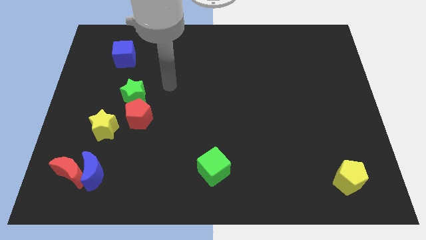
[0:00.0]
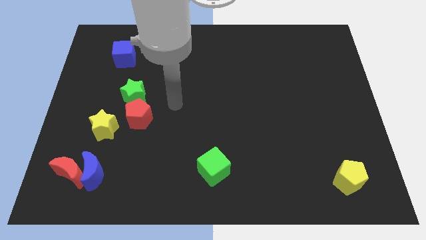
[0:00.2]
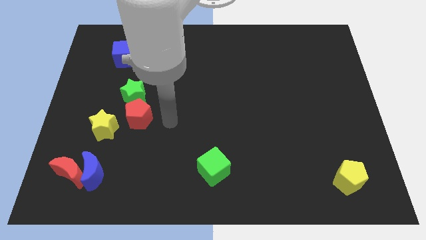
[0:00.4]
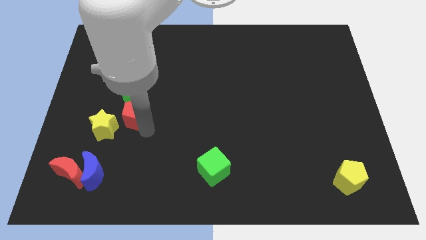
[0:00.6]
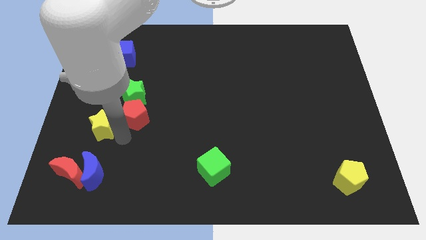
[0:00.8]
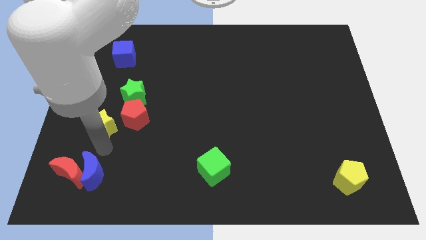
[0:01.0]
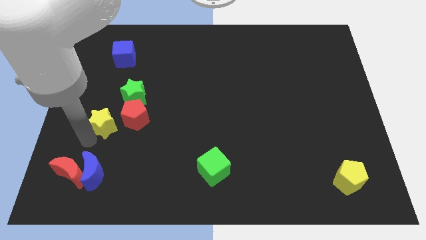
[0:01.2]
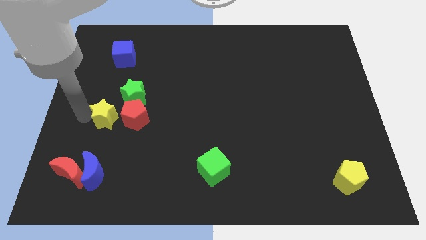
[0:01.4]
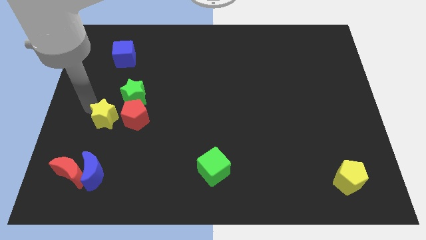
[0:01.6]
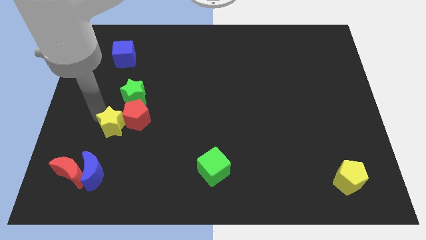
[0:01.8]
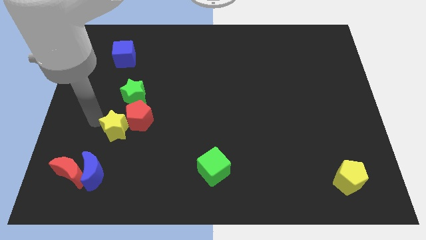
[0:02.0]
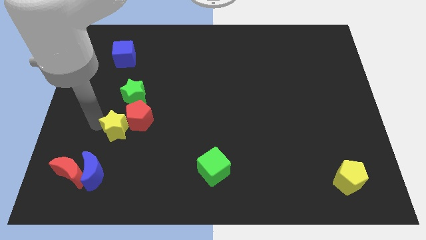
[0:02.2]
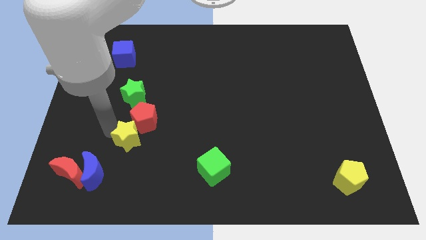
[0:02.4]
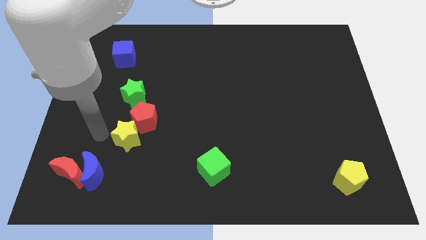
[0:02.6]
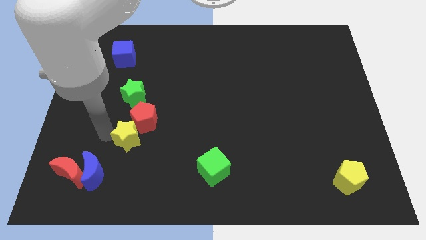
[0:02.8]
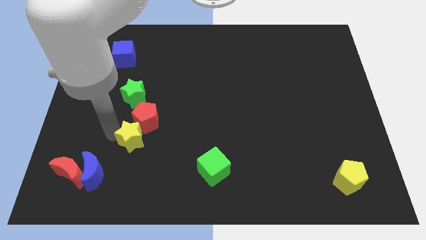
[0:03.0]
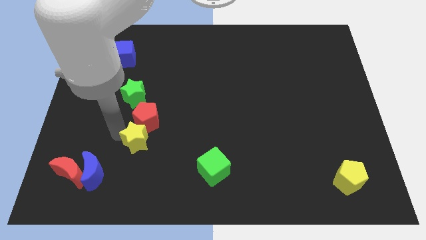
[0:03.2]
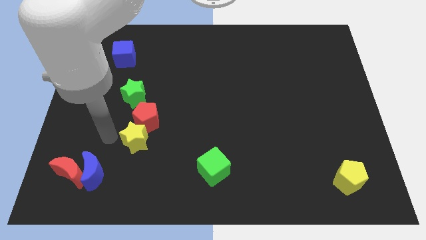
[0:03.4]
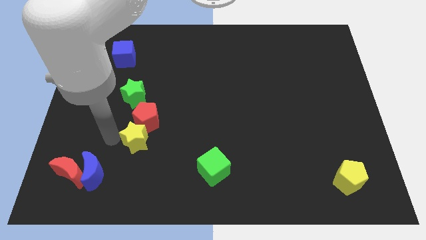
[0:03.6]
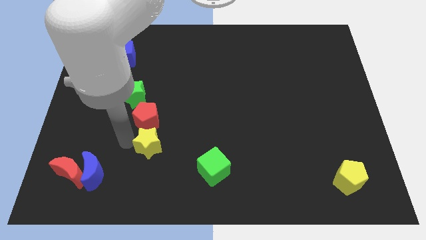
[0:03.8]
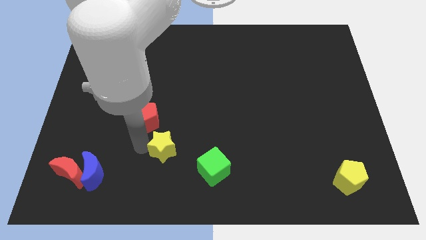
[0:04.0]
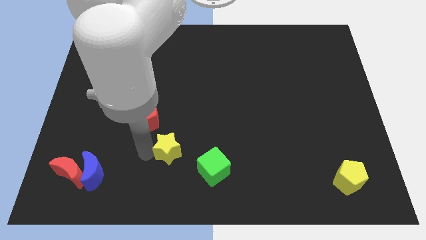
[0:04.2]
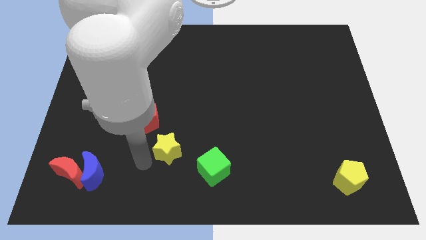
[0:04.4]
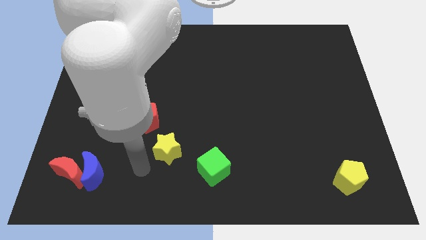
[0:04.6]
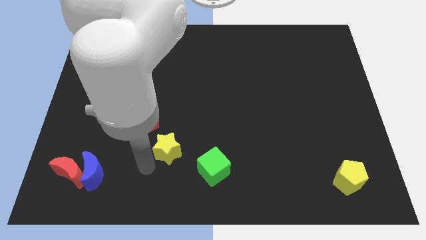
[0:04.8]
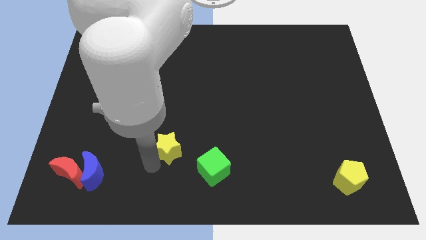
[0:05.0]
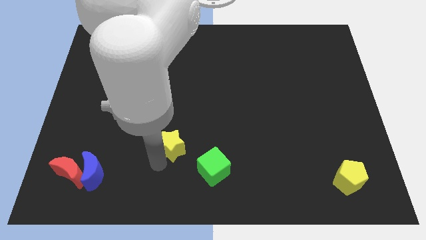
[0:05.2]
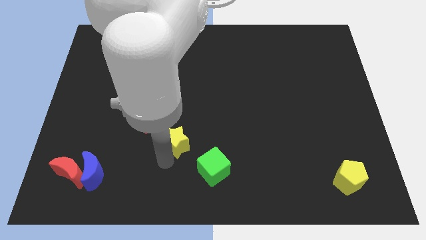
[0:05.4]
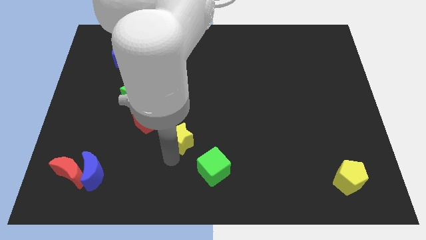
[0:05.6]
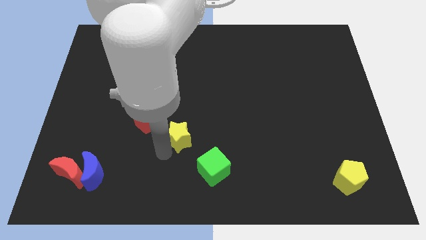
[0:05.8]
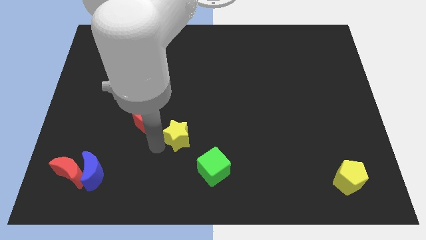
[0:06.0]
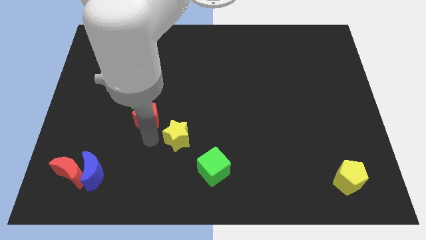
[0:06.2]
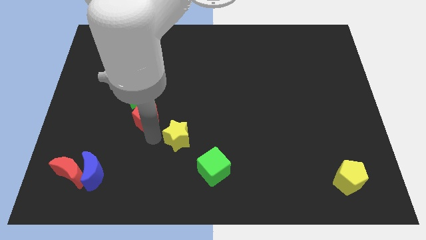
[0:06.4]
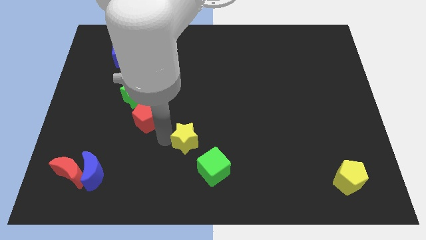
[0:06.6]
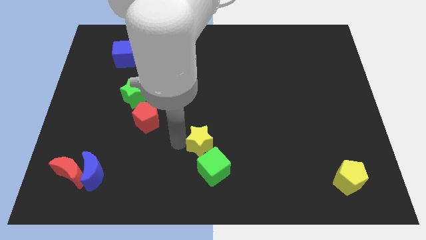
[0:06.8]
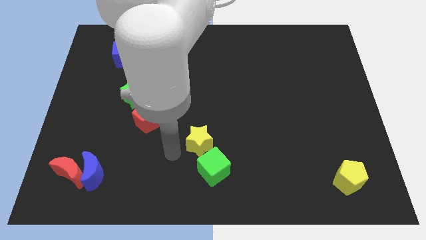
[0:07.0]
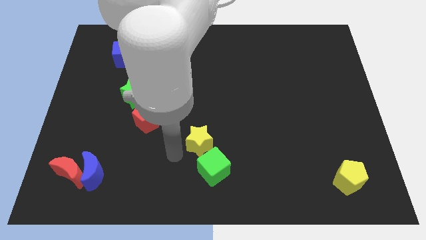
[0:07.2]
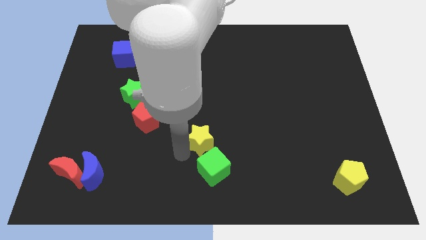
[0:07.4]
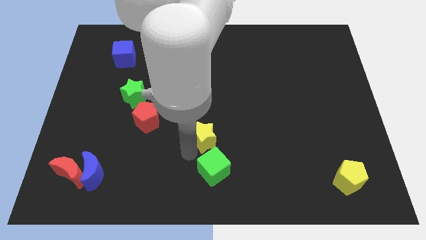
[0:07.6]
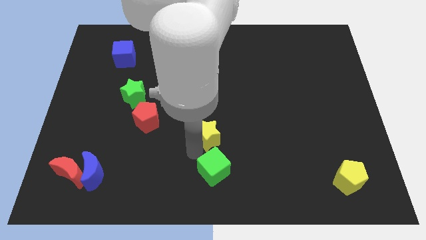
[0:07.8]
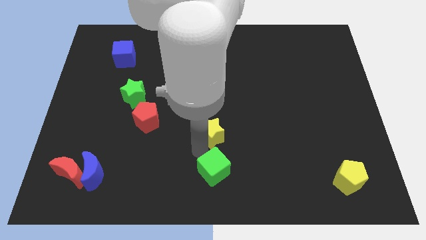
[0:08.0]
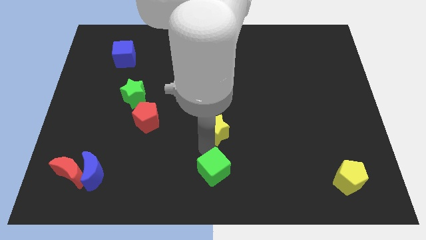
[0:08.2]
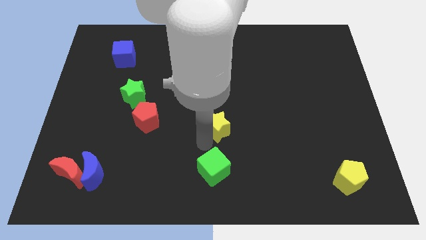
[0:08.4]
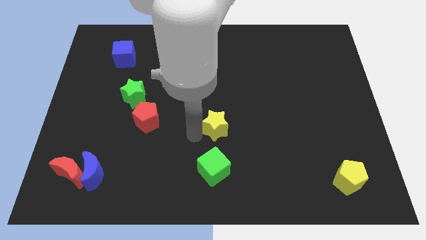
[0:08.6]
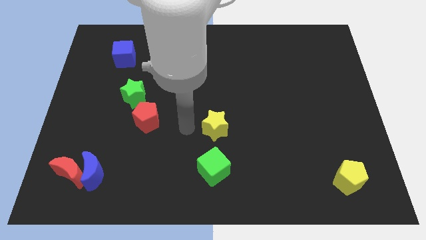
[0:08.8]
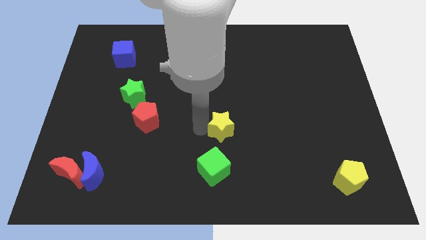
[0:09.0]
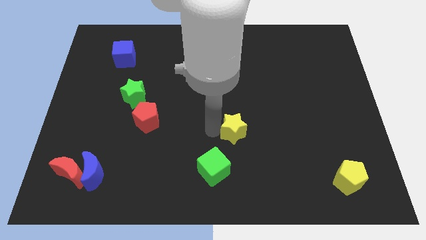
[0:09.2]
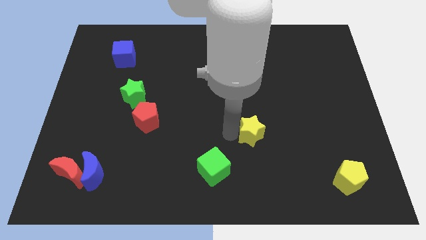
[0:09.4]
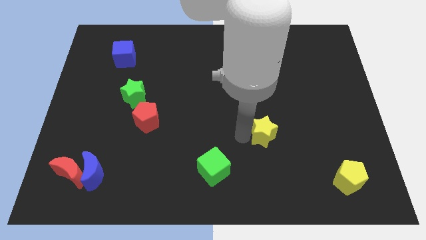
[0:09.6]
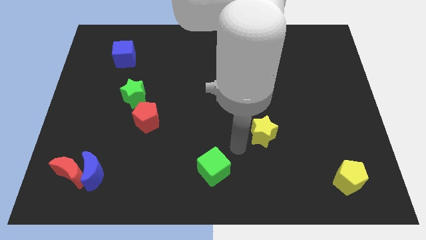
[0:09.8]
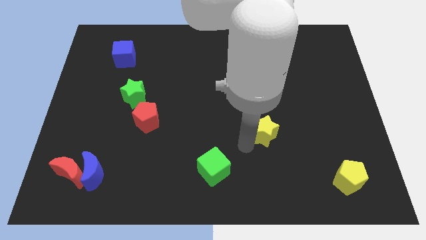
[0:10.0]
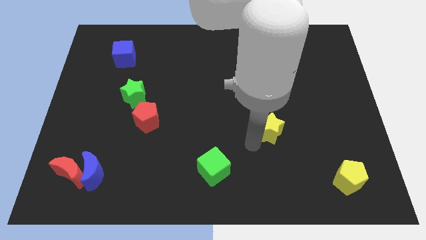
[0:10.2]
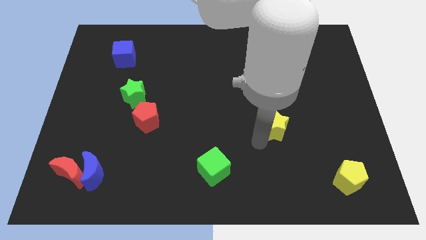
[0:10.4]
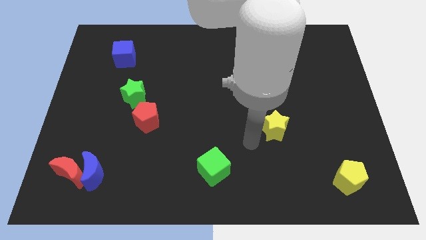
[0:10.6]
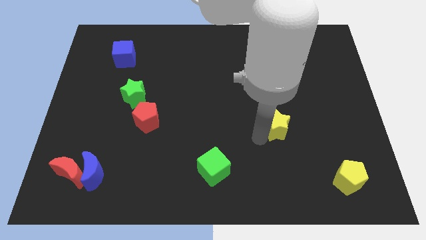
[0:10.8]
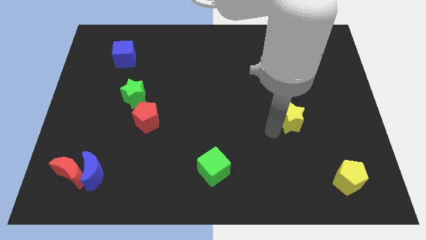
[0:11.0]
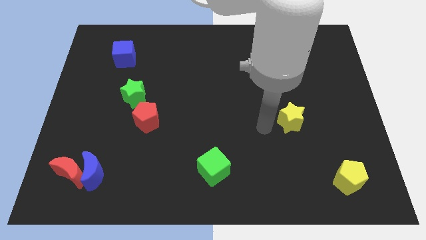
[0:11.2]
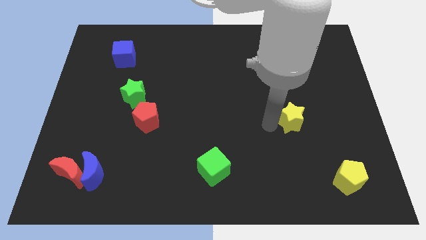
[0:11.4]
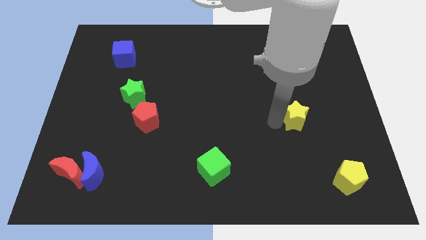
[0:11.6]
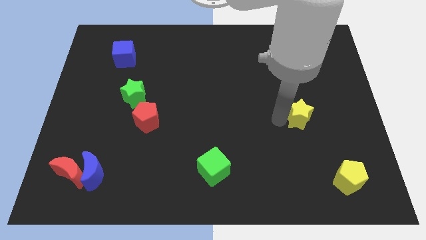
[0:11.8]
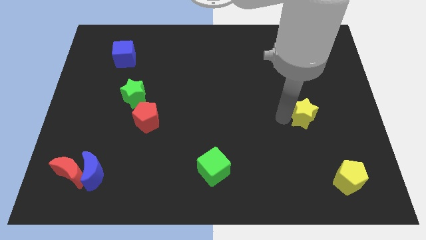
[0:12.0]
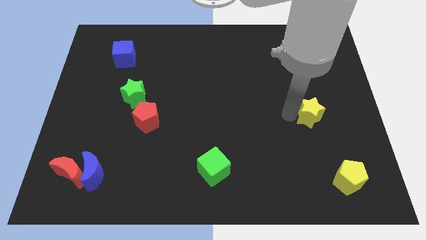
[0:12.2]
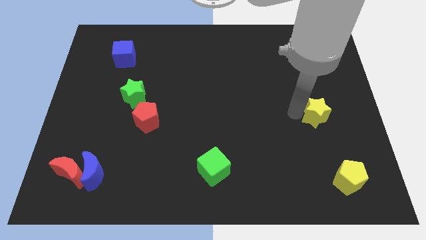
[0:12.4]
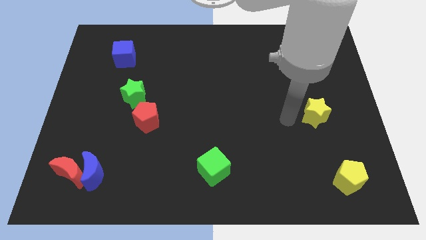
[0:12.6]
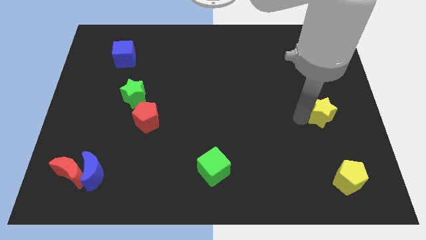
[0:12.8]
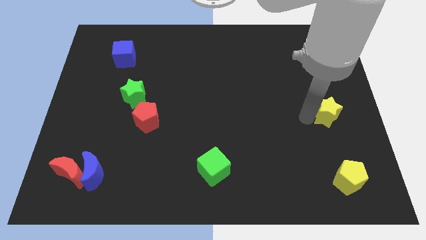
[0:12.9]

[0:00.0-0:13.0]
push the yellow star to the center right

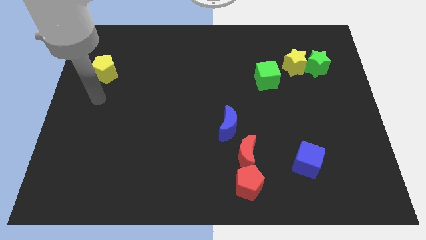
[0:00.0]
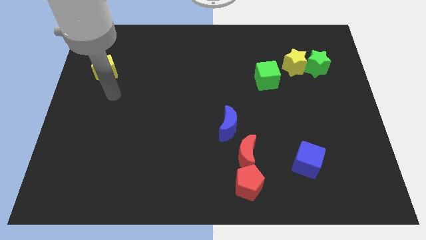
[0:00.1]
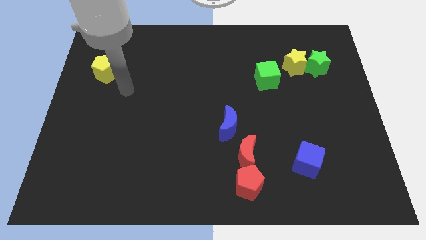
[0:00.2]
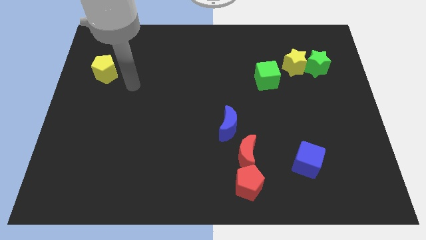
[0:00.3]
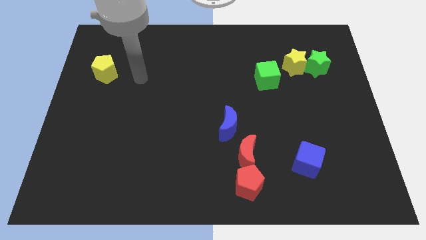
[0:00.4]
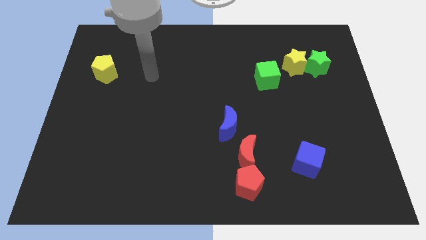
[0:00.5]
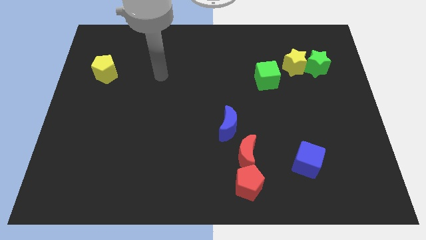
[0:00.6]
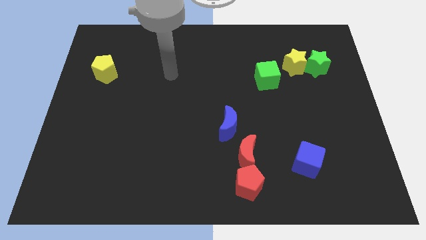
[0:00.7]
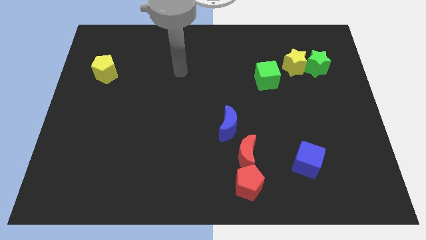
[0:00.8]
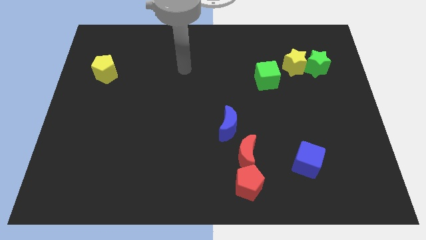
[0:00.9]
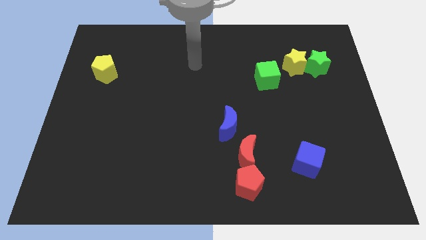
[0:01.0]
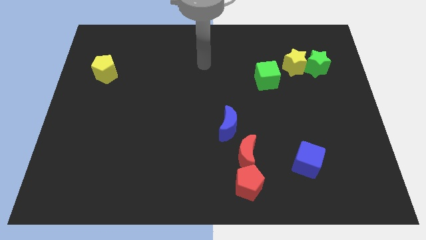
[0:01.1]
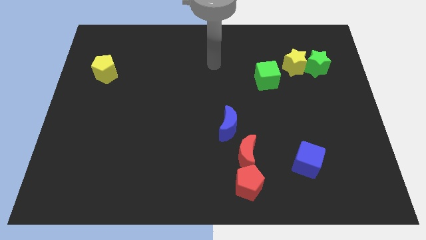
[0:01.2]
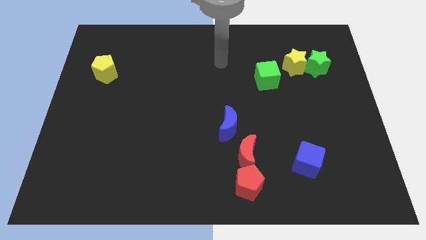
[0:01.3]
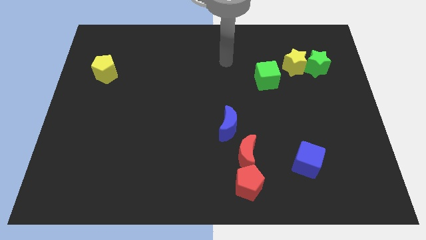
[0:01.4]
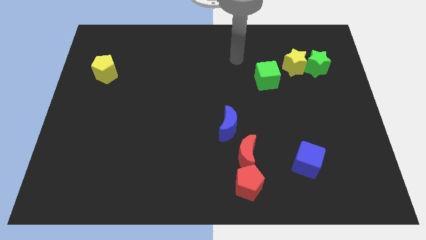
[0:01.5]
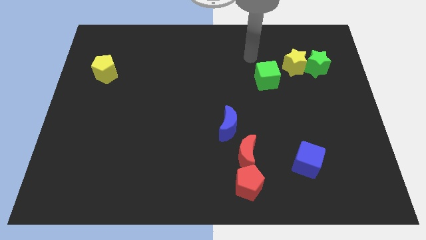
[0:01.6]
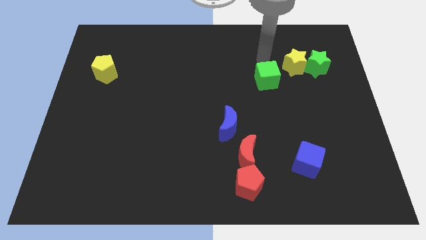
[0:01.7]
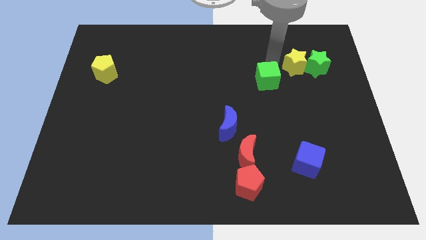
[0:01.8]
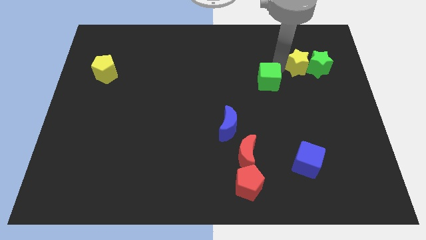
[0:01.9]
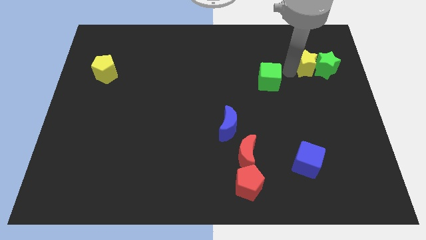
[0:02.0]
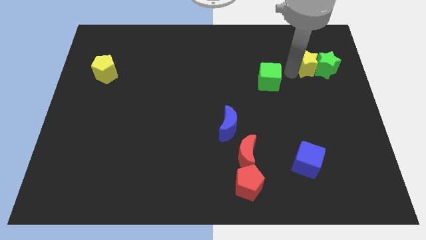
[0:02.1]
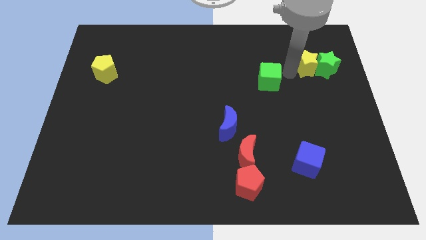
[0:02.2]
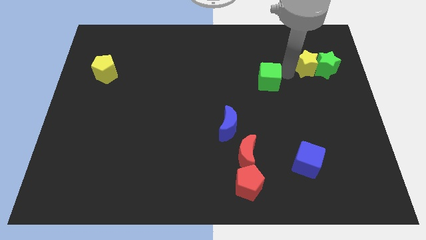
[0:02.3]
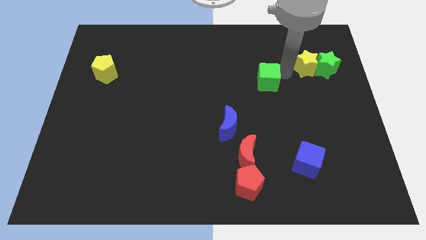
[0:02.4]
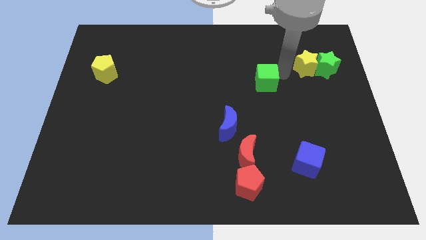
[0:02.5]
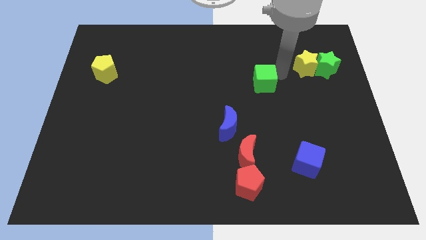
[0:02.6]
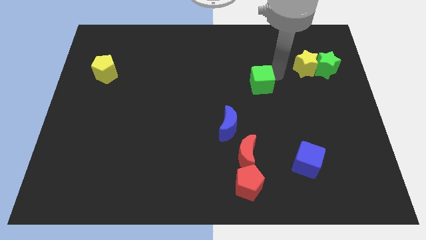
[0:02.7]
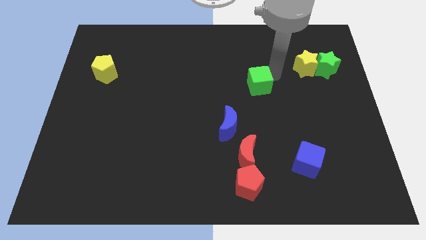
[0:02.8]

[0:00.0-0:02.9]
move the green cube to the center
